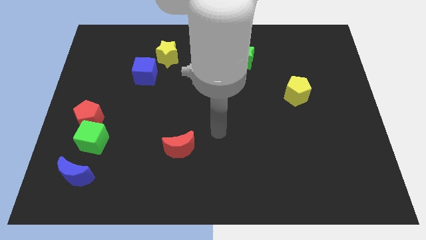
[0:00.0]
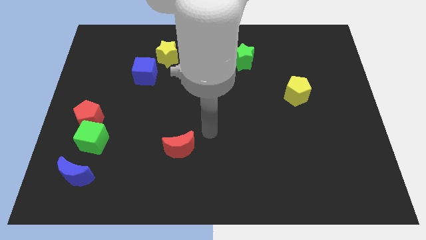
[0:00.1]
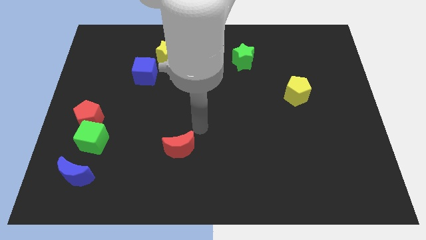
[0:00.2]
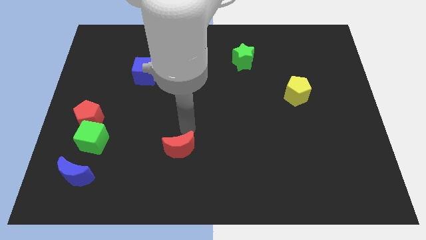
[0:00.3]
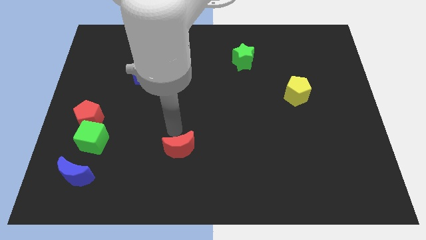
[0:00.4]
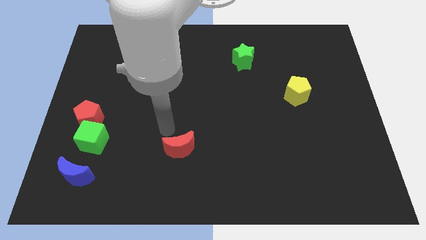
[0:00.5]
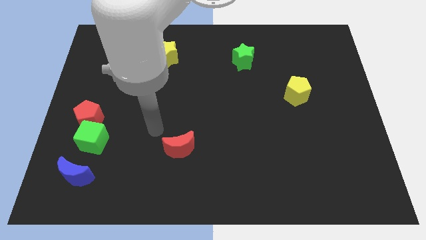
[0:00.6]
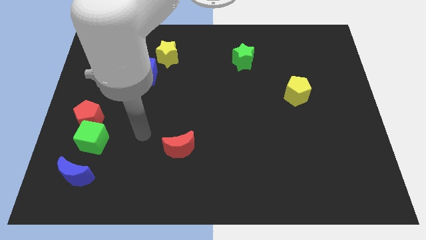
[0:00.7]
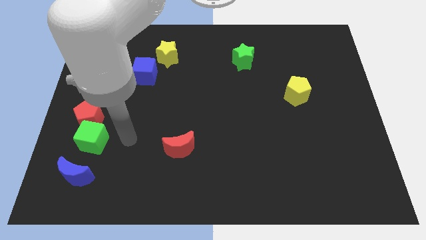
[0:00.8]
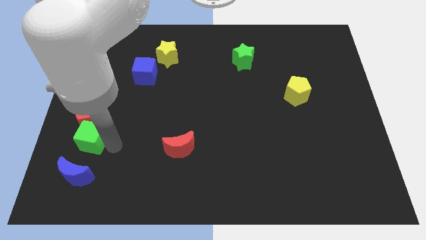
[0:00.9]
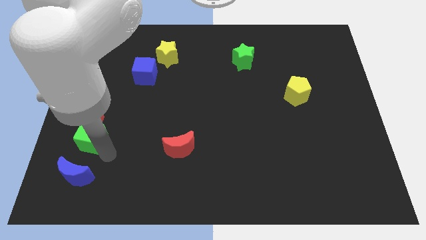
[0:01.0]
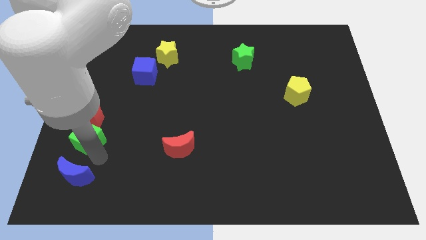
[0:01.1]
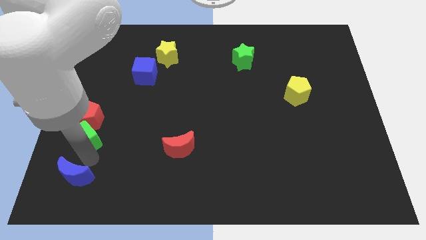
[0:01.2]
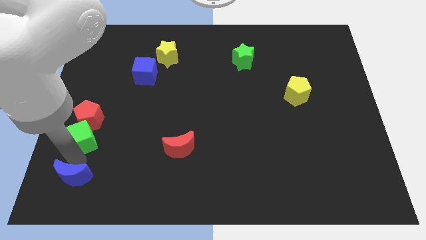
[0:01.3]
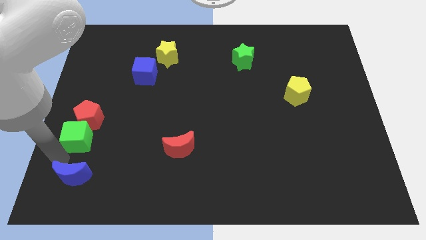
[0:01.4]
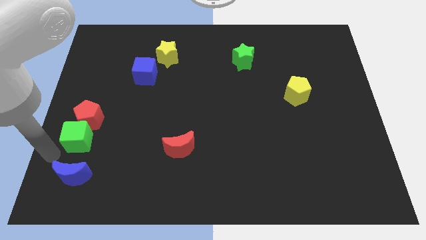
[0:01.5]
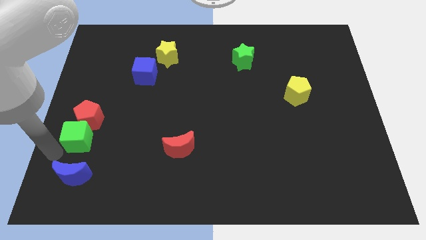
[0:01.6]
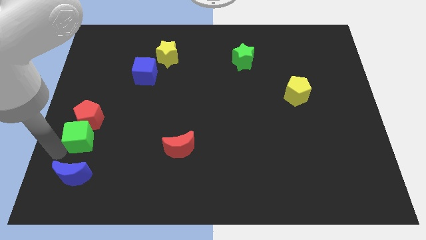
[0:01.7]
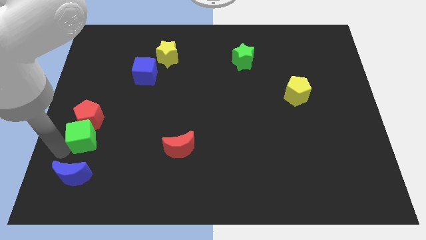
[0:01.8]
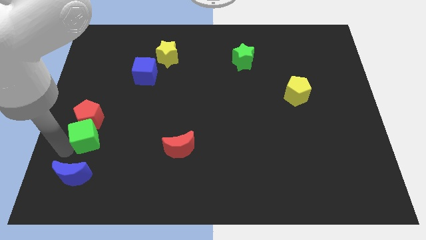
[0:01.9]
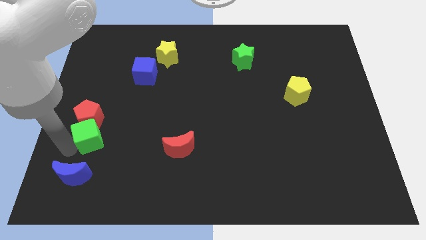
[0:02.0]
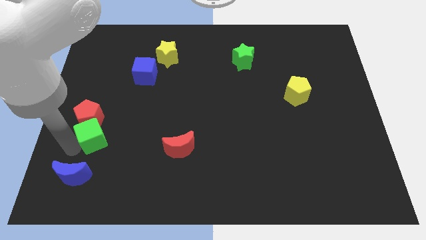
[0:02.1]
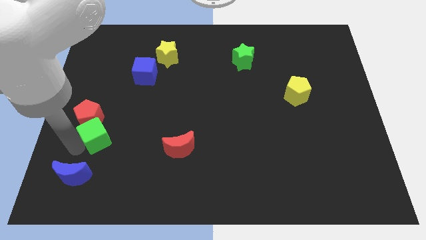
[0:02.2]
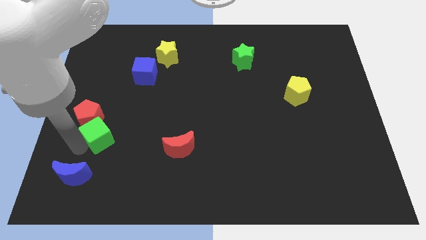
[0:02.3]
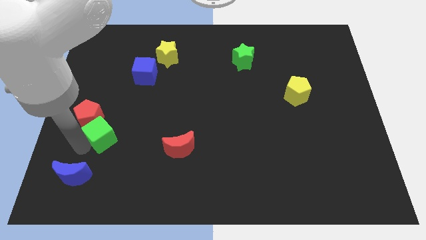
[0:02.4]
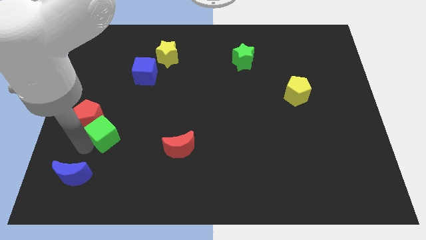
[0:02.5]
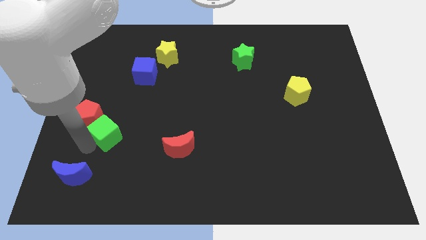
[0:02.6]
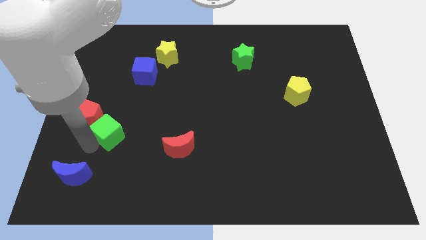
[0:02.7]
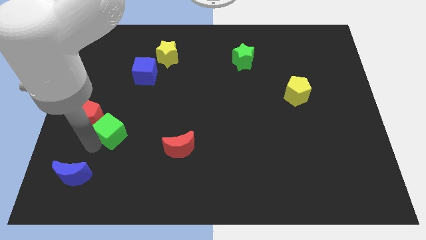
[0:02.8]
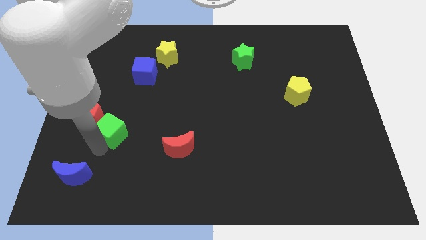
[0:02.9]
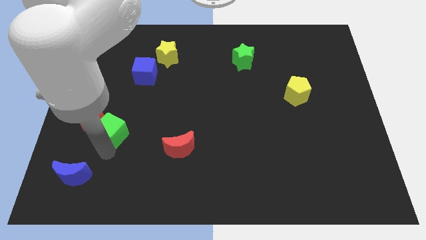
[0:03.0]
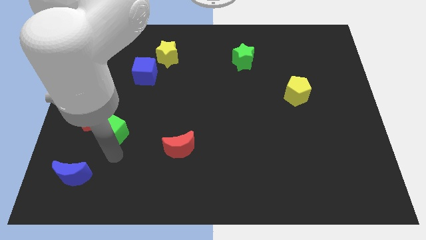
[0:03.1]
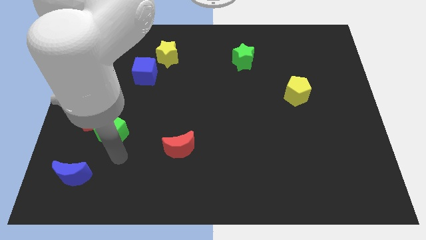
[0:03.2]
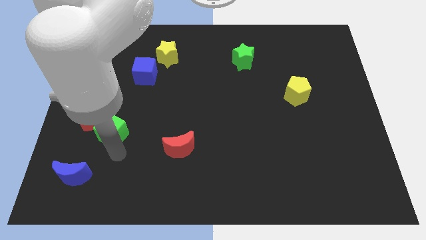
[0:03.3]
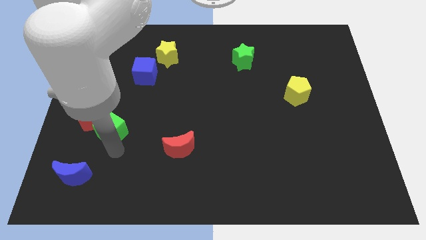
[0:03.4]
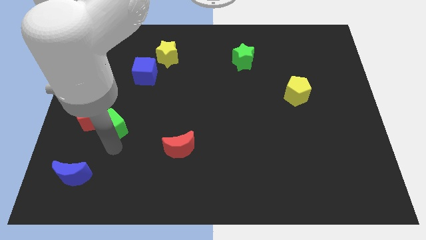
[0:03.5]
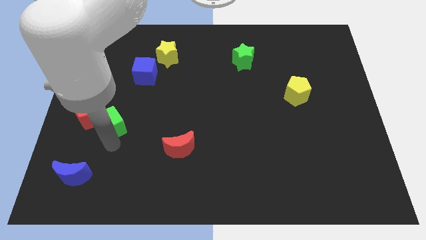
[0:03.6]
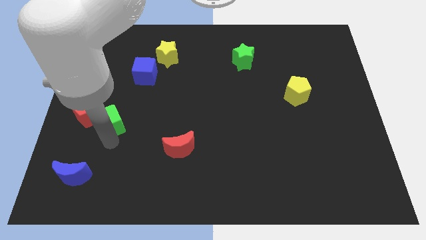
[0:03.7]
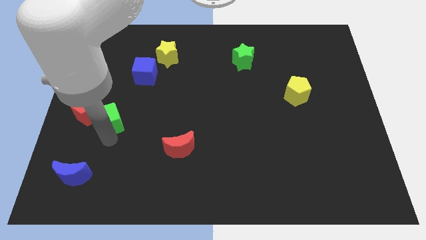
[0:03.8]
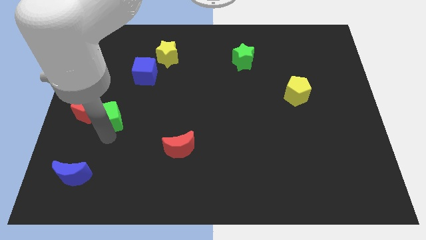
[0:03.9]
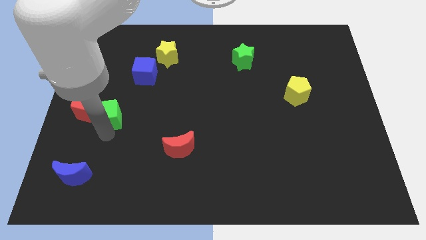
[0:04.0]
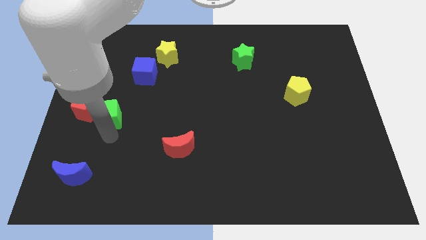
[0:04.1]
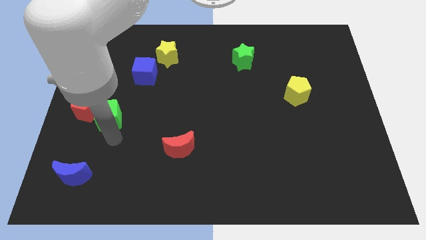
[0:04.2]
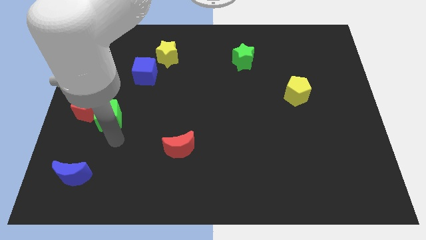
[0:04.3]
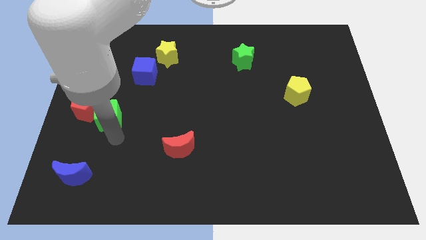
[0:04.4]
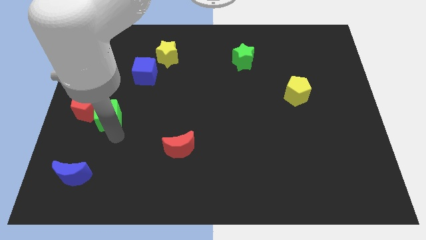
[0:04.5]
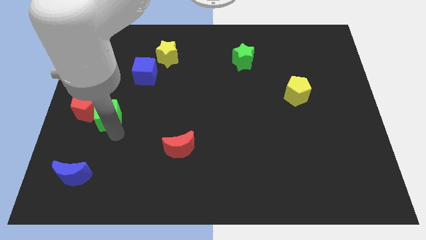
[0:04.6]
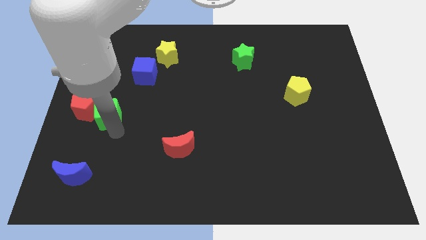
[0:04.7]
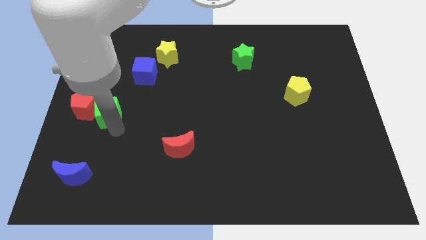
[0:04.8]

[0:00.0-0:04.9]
push the green cube slightly upwards

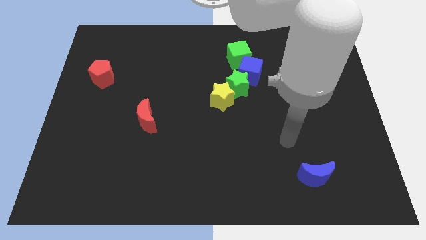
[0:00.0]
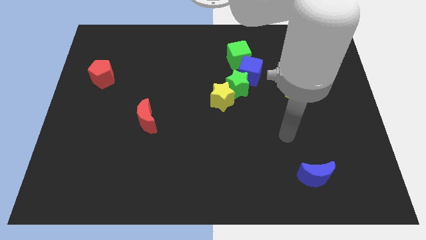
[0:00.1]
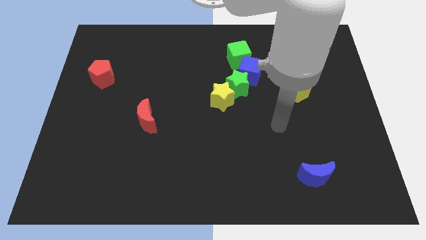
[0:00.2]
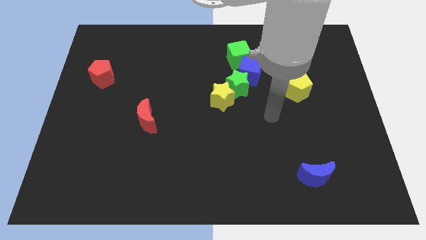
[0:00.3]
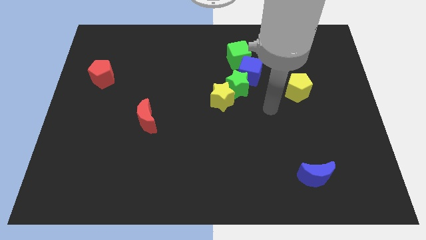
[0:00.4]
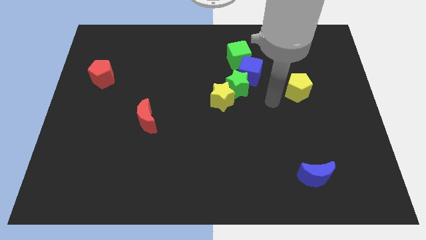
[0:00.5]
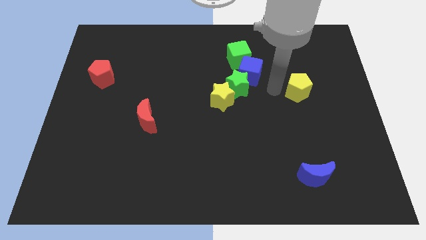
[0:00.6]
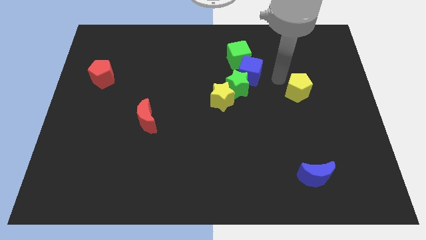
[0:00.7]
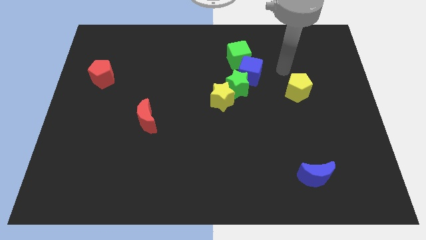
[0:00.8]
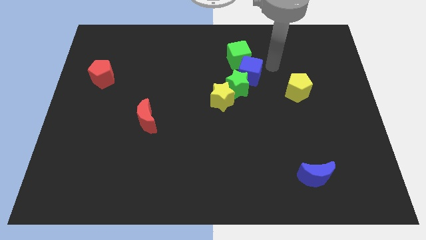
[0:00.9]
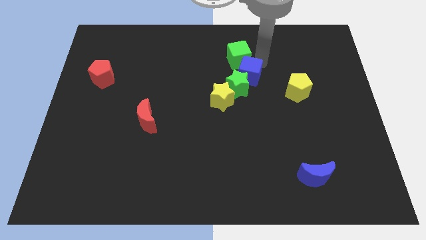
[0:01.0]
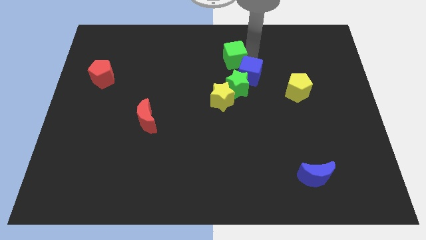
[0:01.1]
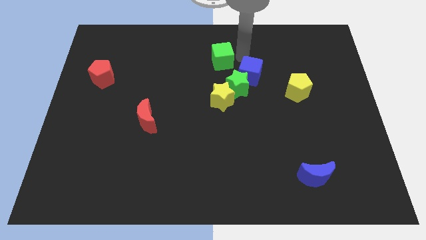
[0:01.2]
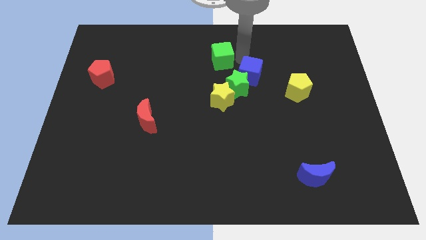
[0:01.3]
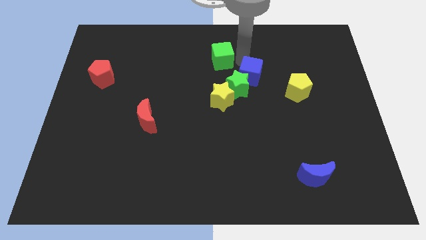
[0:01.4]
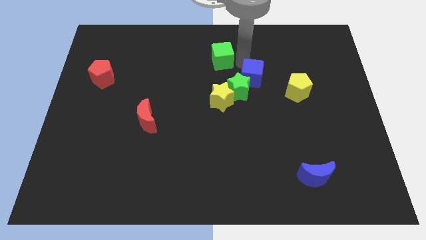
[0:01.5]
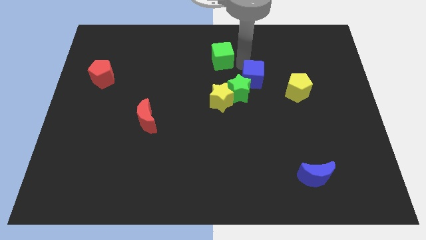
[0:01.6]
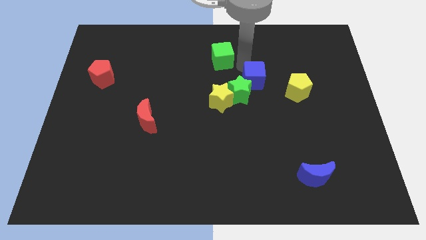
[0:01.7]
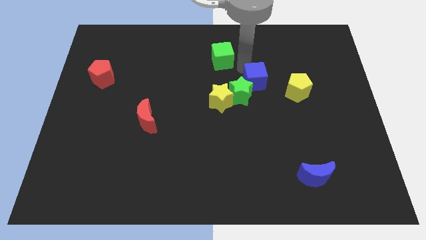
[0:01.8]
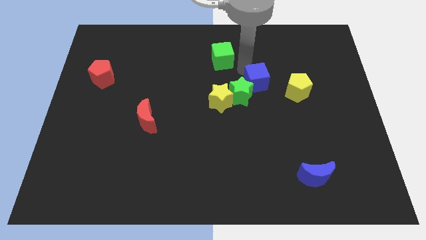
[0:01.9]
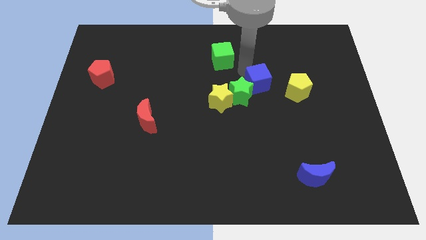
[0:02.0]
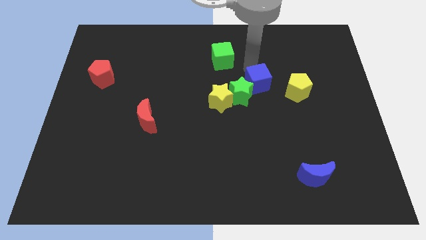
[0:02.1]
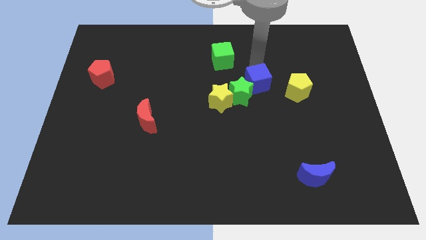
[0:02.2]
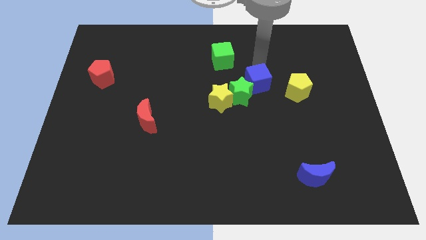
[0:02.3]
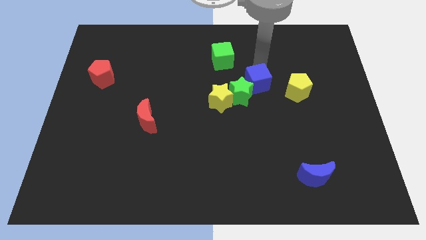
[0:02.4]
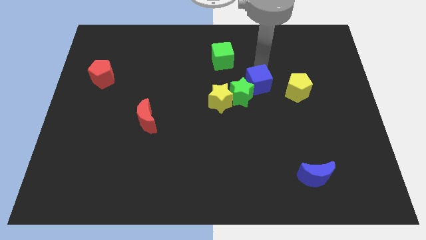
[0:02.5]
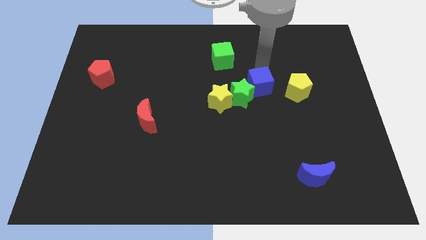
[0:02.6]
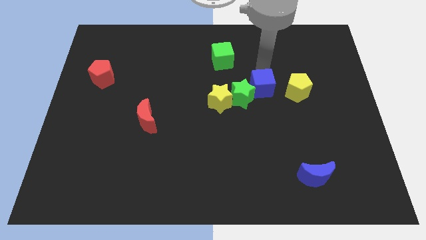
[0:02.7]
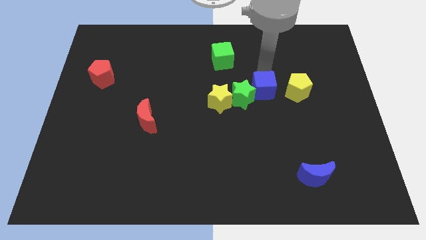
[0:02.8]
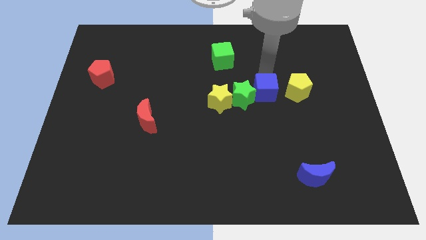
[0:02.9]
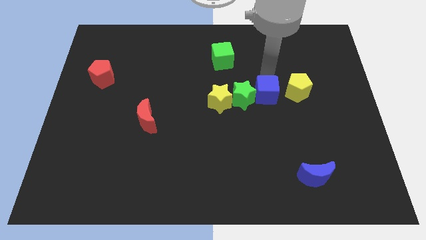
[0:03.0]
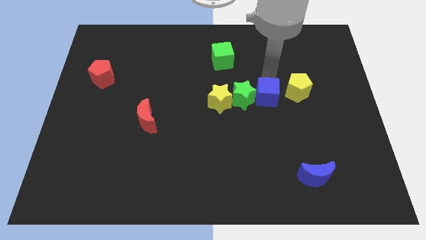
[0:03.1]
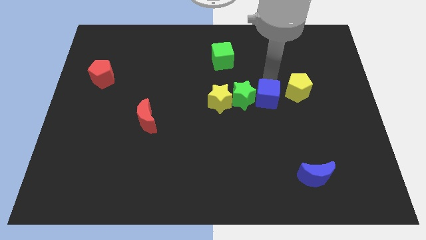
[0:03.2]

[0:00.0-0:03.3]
slide the blue cube a little bit down
